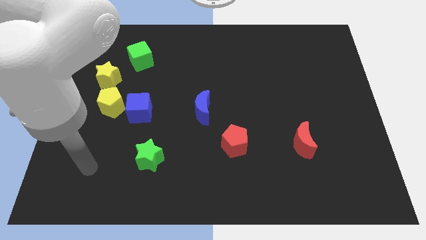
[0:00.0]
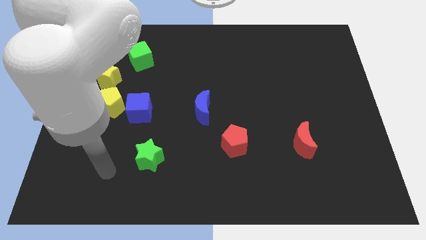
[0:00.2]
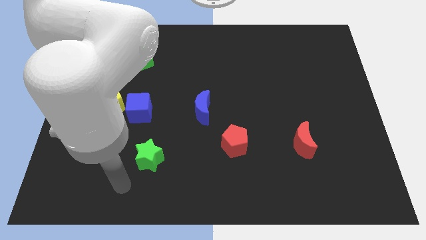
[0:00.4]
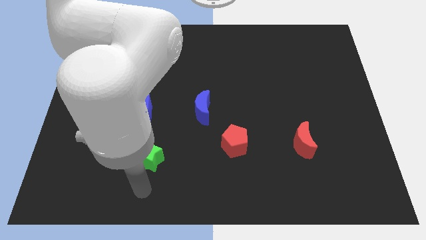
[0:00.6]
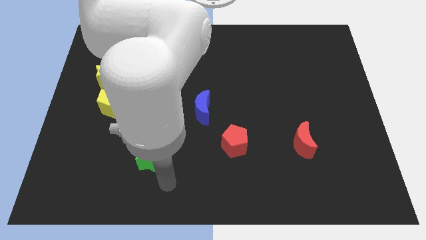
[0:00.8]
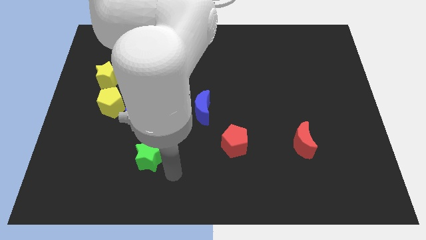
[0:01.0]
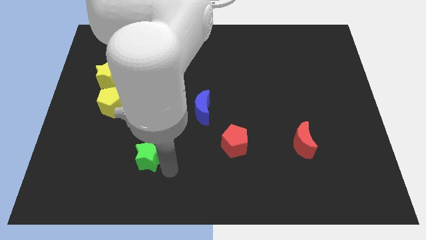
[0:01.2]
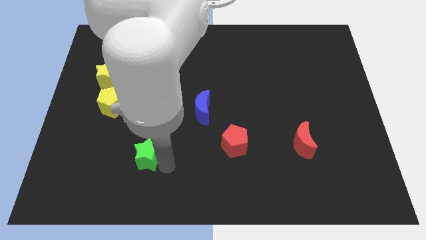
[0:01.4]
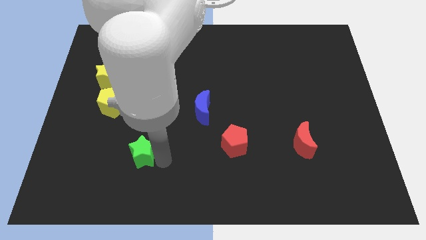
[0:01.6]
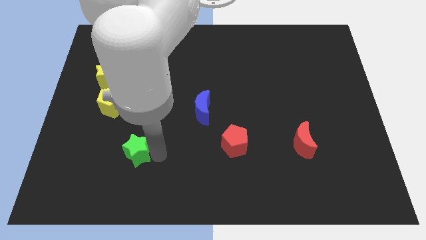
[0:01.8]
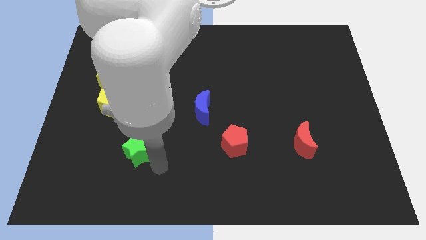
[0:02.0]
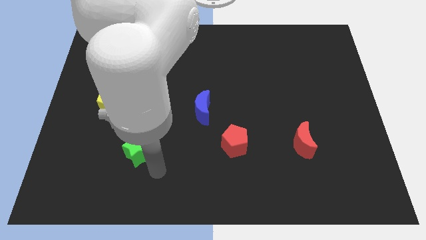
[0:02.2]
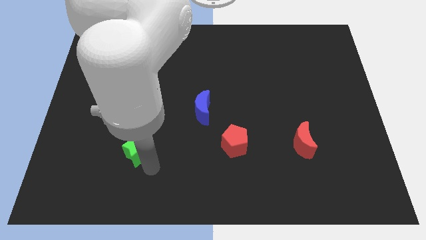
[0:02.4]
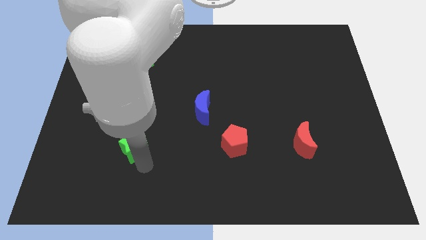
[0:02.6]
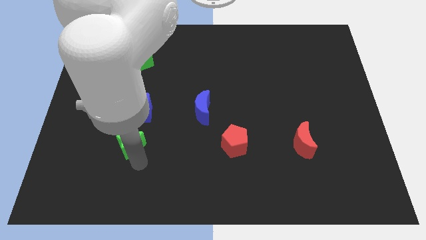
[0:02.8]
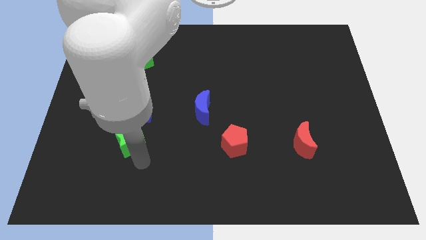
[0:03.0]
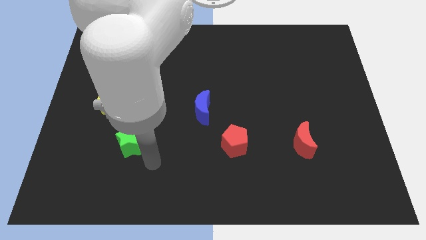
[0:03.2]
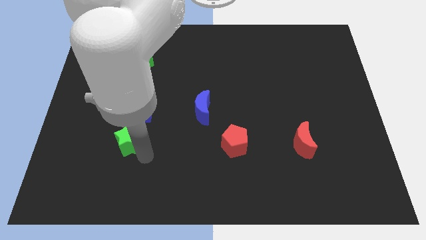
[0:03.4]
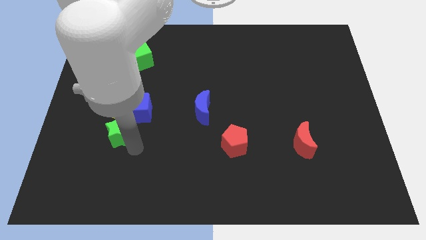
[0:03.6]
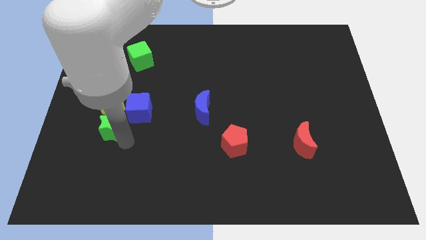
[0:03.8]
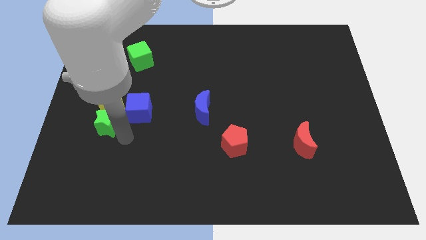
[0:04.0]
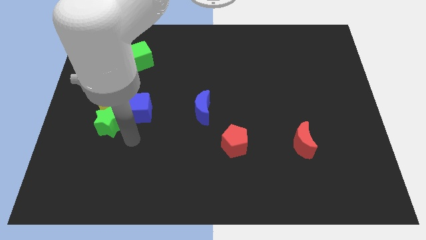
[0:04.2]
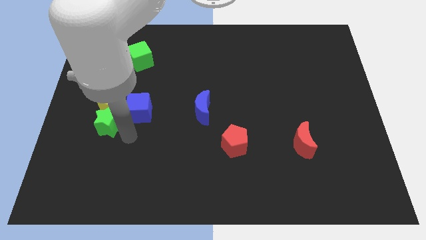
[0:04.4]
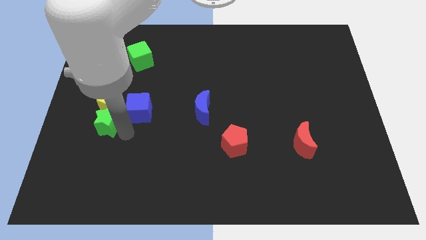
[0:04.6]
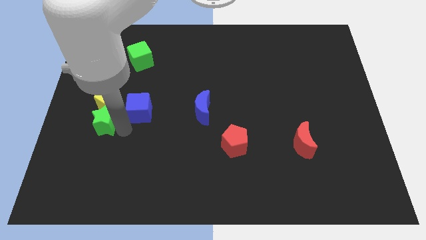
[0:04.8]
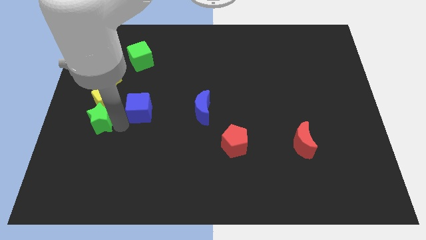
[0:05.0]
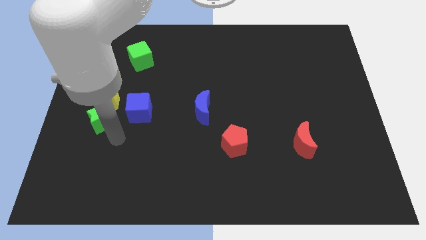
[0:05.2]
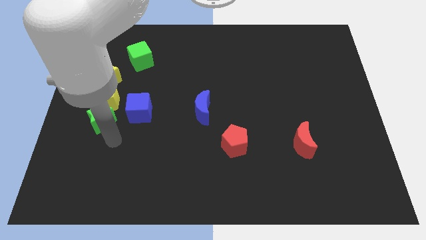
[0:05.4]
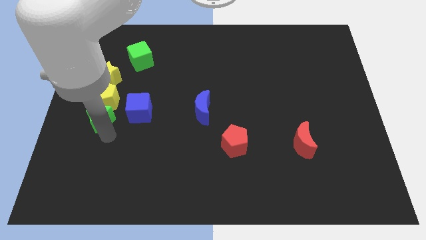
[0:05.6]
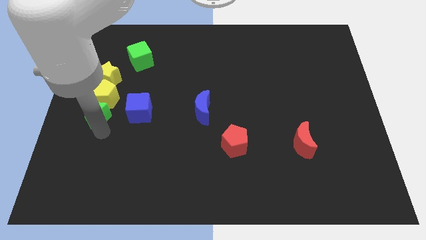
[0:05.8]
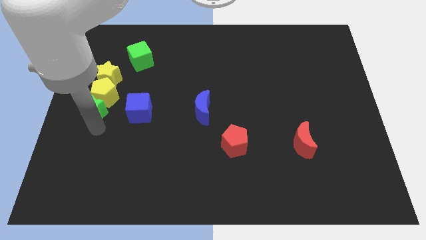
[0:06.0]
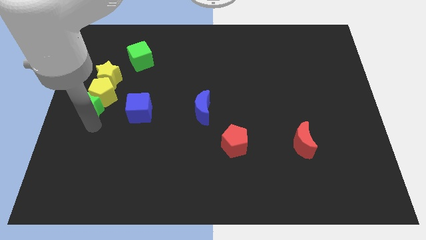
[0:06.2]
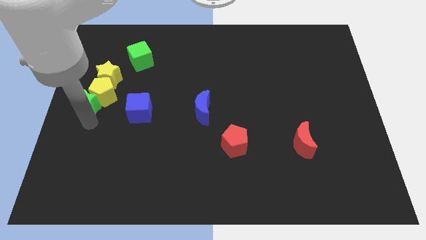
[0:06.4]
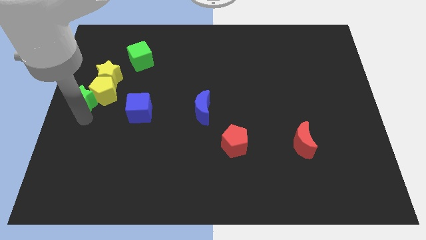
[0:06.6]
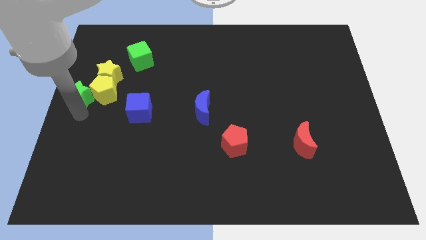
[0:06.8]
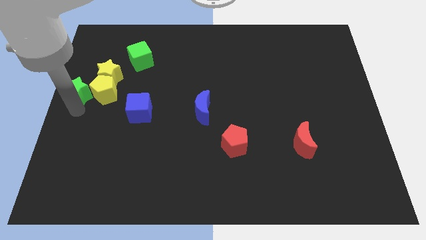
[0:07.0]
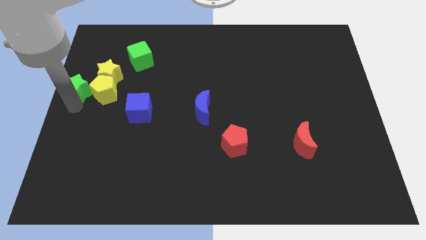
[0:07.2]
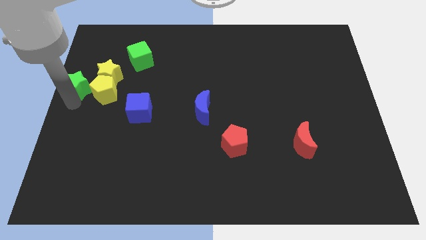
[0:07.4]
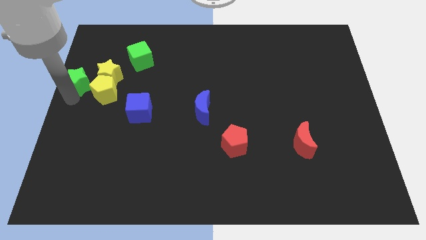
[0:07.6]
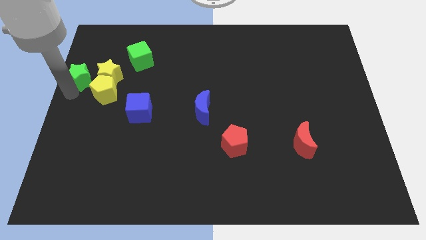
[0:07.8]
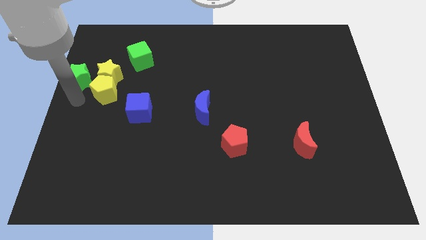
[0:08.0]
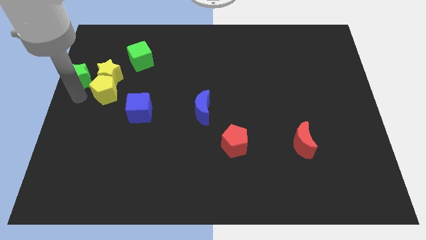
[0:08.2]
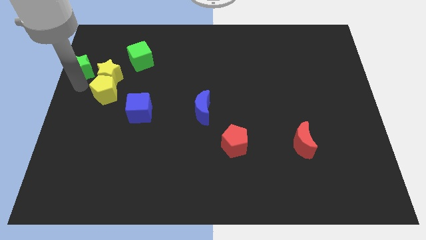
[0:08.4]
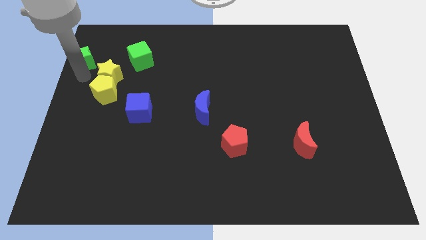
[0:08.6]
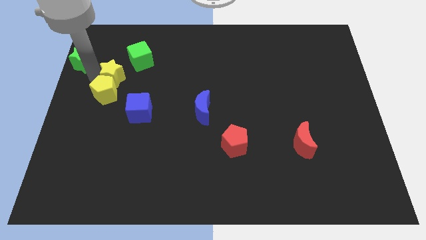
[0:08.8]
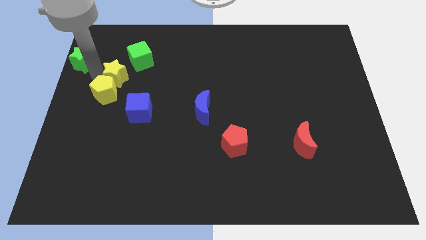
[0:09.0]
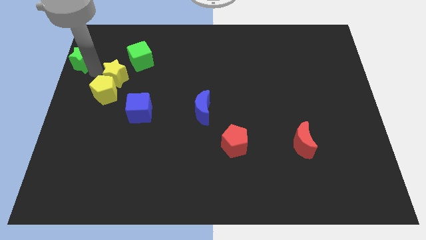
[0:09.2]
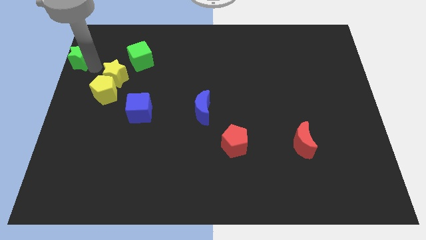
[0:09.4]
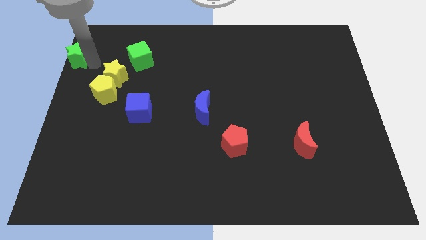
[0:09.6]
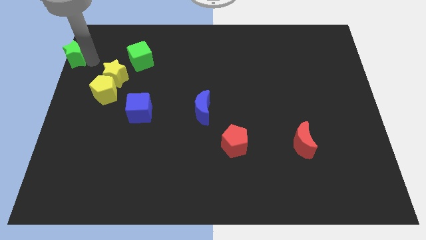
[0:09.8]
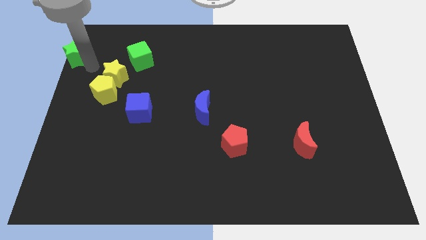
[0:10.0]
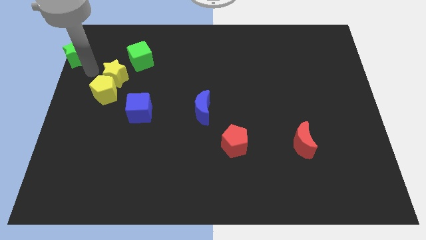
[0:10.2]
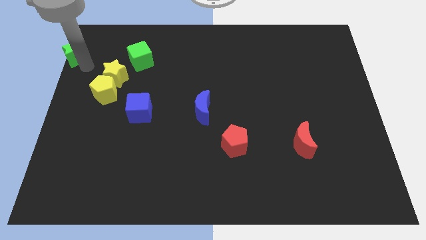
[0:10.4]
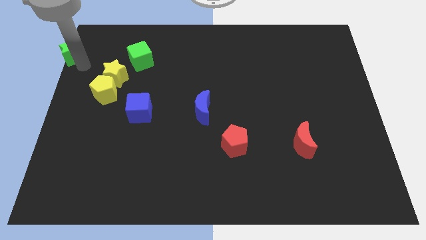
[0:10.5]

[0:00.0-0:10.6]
put the green star to the top left corner

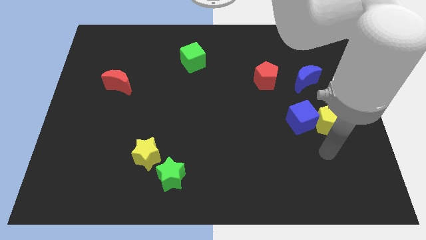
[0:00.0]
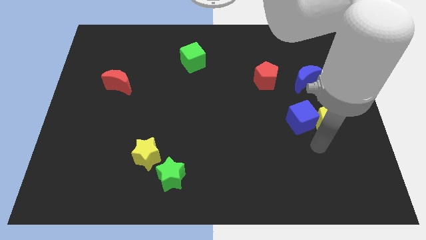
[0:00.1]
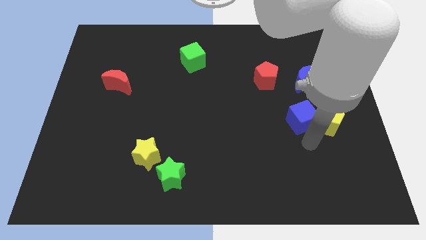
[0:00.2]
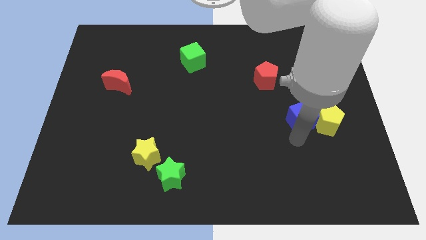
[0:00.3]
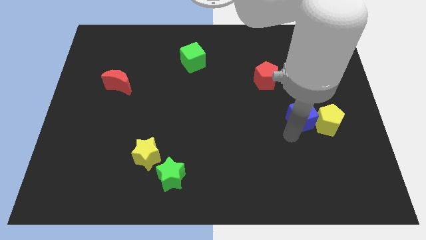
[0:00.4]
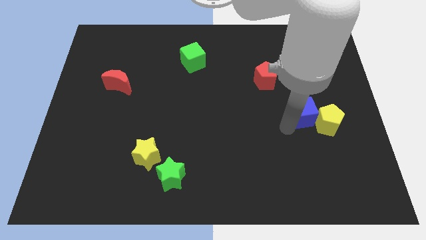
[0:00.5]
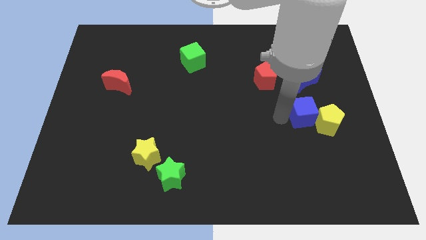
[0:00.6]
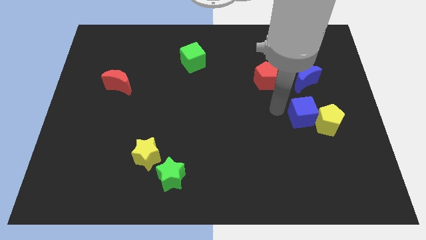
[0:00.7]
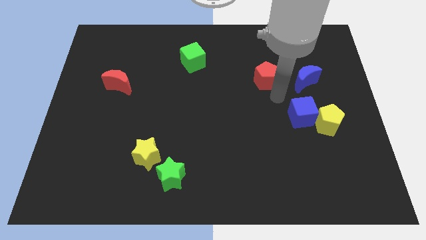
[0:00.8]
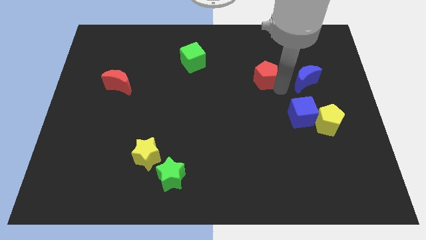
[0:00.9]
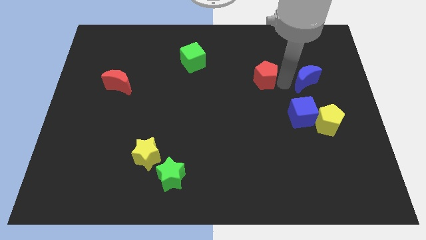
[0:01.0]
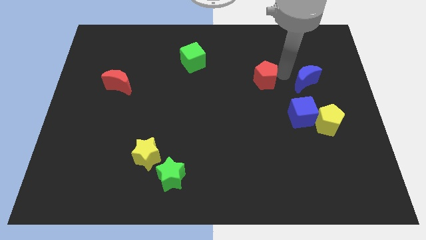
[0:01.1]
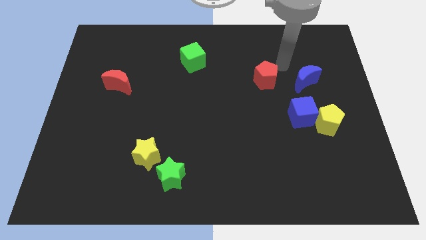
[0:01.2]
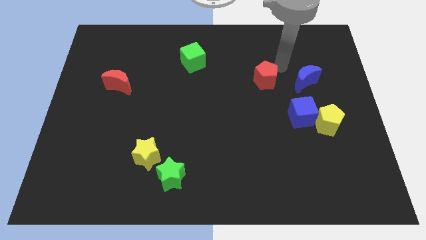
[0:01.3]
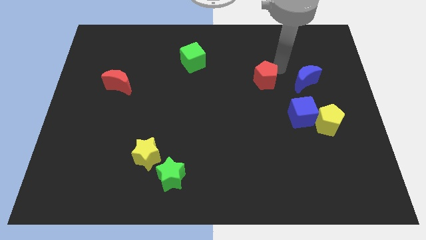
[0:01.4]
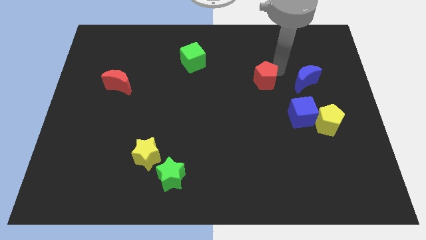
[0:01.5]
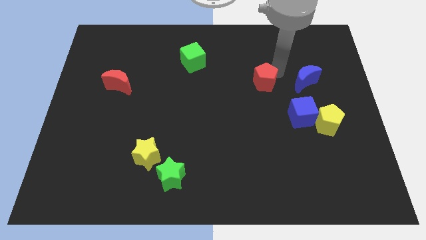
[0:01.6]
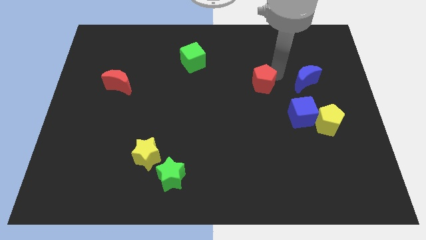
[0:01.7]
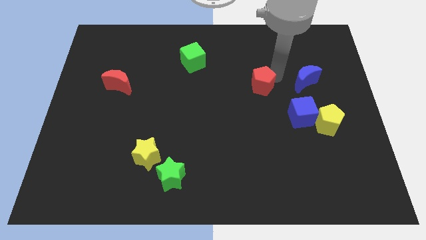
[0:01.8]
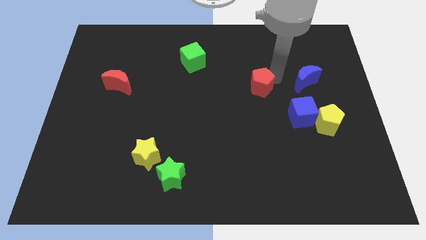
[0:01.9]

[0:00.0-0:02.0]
move the red pentagon to the middle
